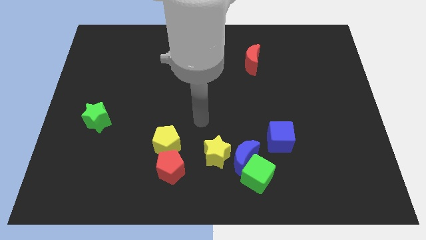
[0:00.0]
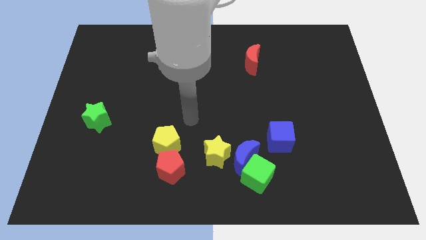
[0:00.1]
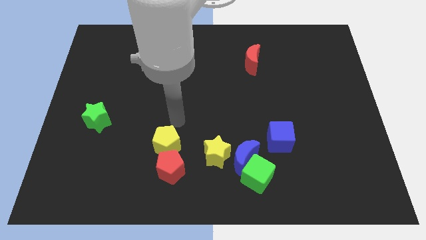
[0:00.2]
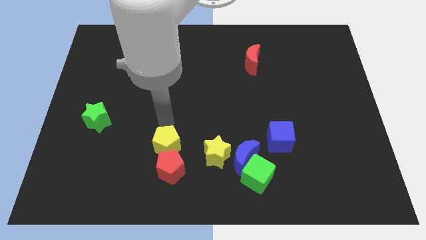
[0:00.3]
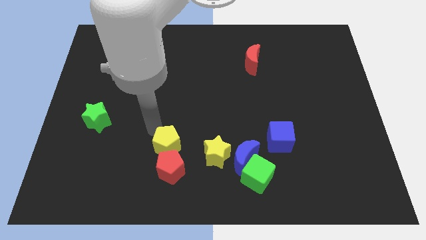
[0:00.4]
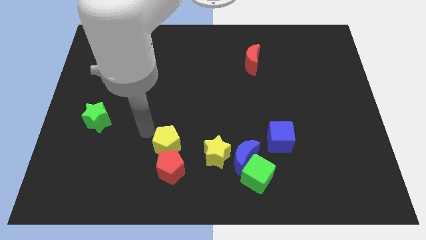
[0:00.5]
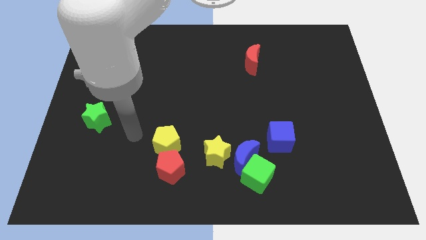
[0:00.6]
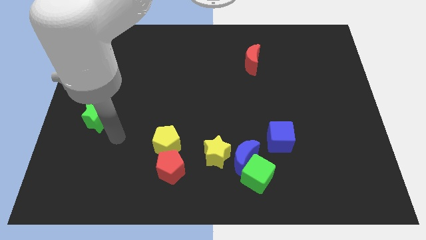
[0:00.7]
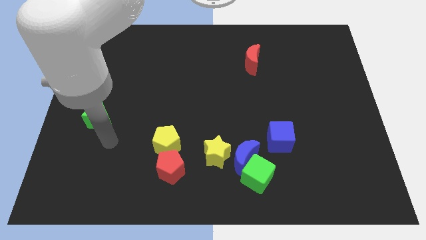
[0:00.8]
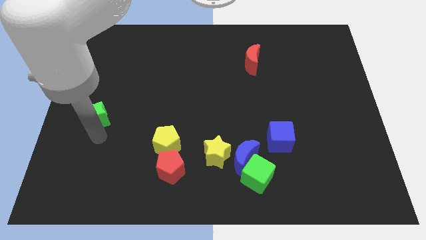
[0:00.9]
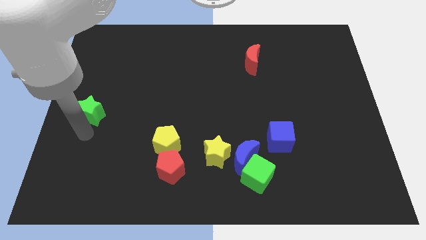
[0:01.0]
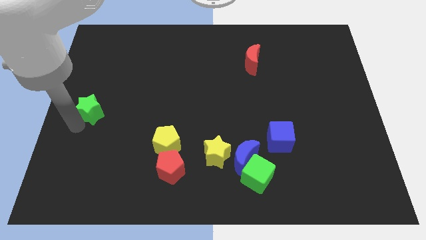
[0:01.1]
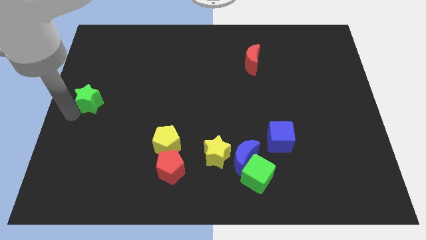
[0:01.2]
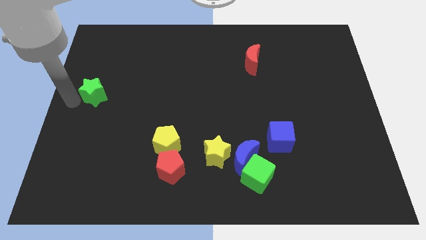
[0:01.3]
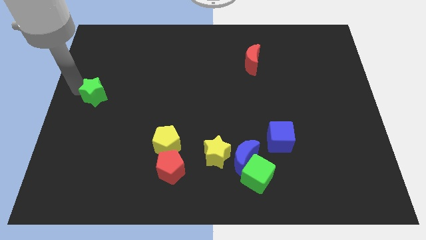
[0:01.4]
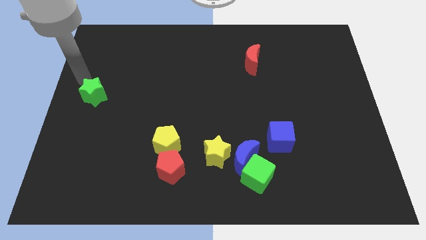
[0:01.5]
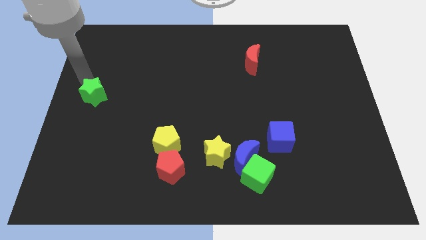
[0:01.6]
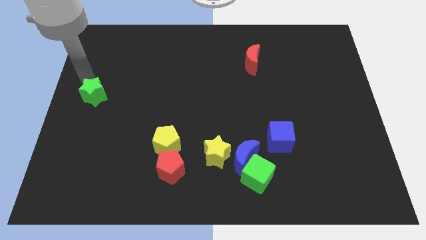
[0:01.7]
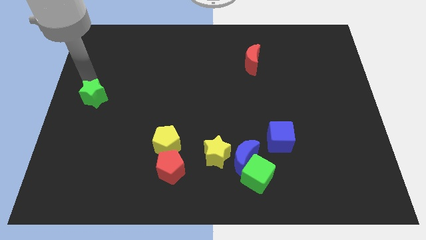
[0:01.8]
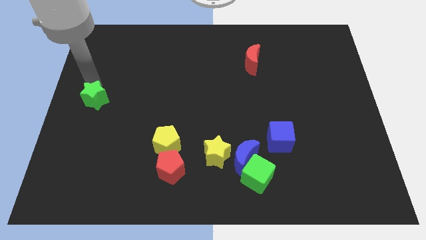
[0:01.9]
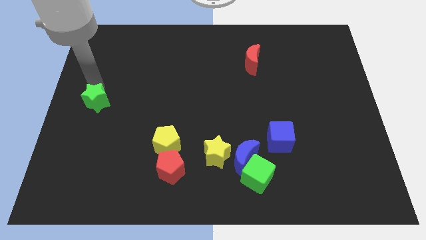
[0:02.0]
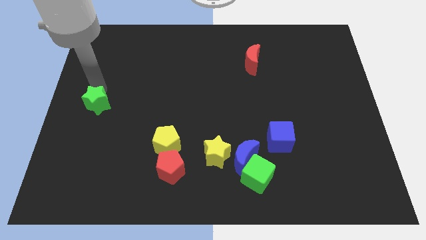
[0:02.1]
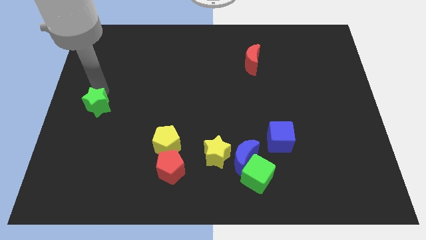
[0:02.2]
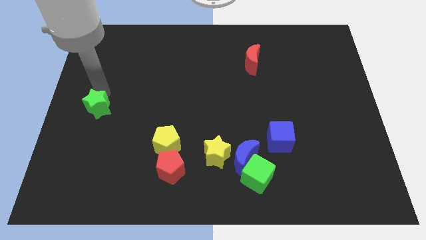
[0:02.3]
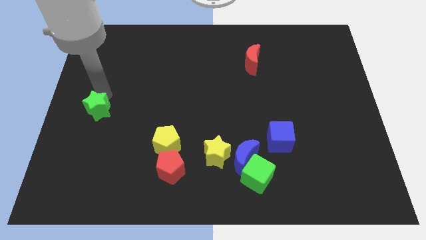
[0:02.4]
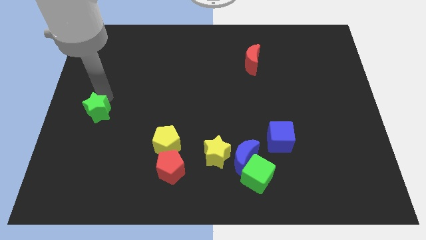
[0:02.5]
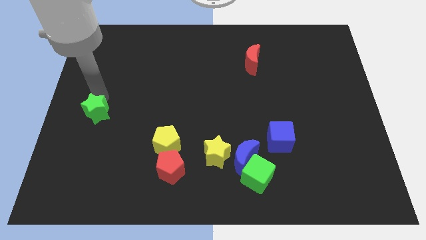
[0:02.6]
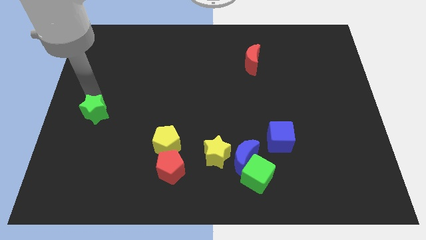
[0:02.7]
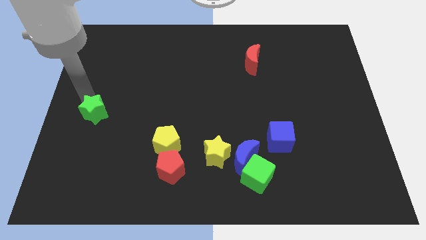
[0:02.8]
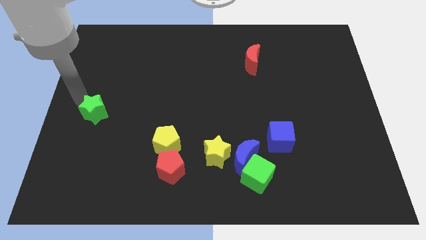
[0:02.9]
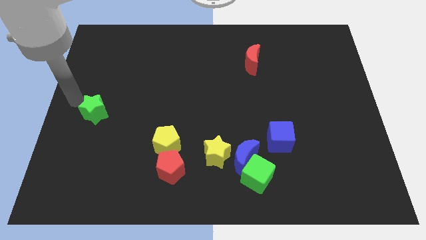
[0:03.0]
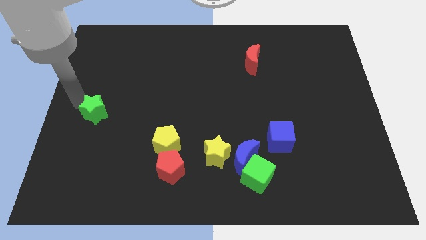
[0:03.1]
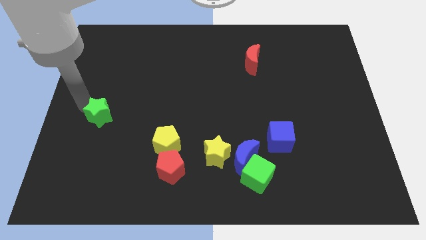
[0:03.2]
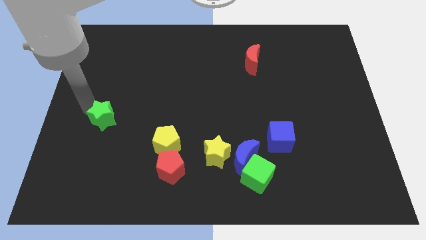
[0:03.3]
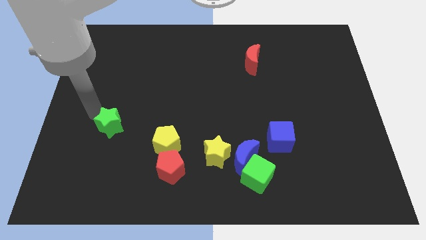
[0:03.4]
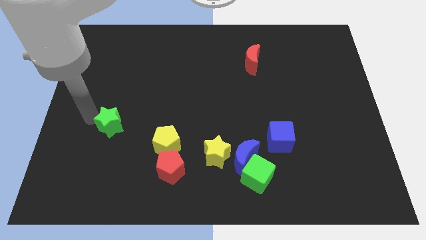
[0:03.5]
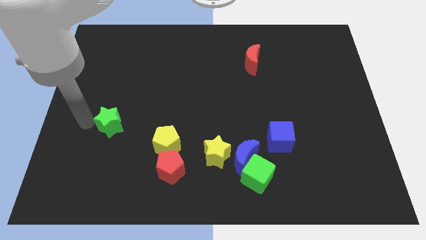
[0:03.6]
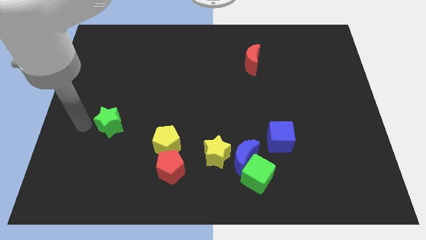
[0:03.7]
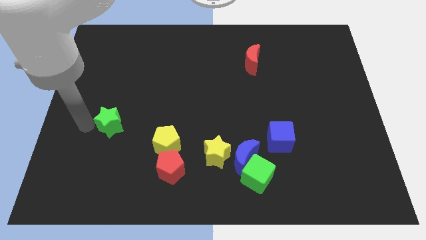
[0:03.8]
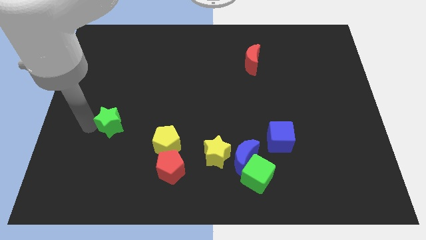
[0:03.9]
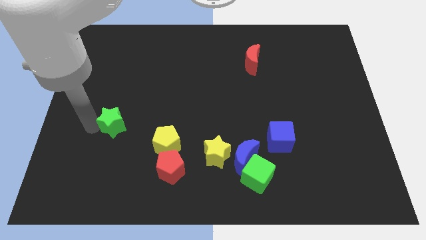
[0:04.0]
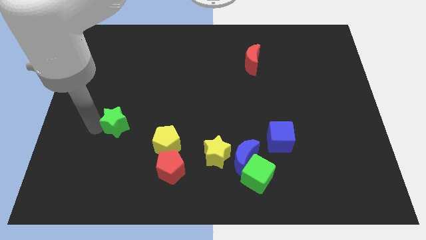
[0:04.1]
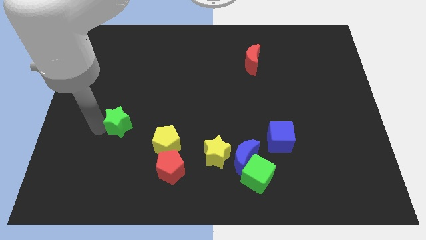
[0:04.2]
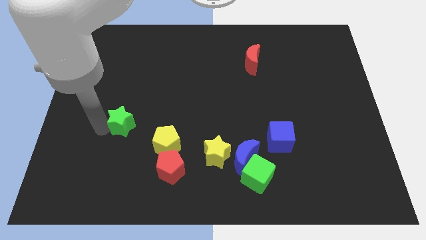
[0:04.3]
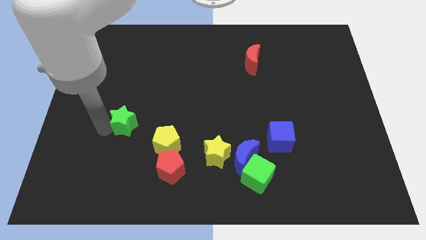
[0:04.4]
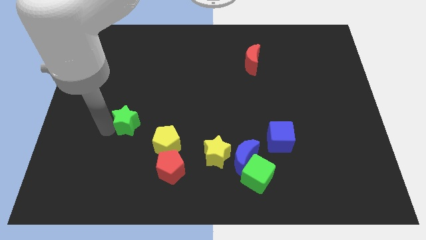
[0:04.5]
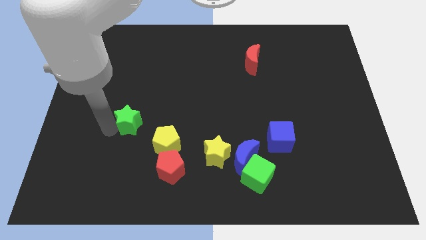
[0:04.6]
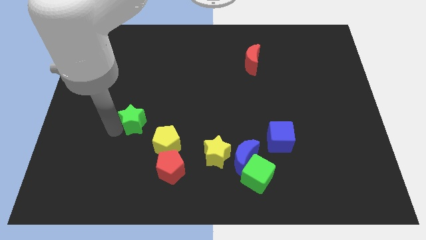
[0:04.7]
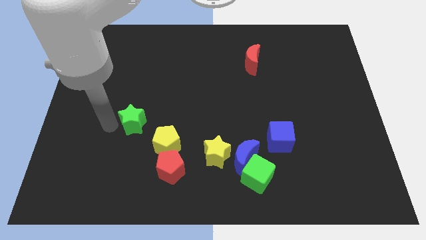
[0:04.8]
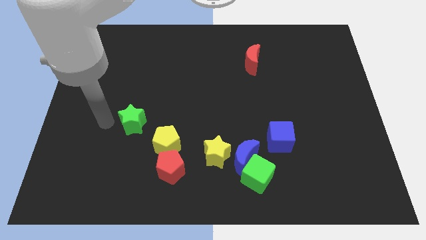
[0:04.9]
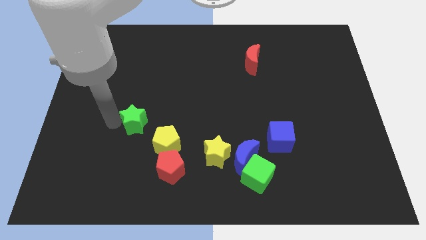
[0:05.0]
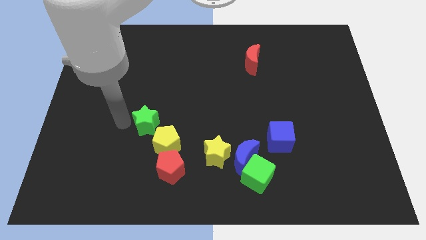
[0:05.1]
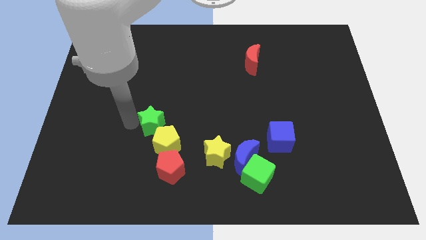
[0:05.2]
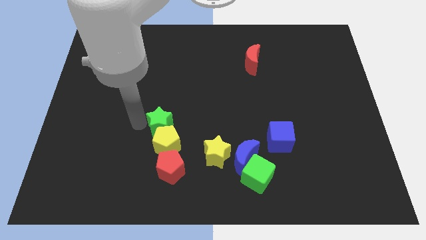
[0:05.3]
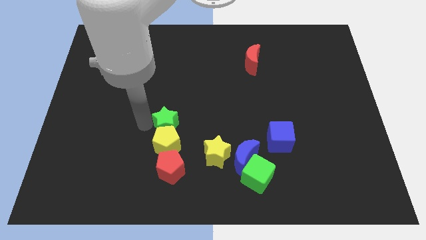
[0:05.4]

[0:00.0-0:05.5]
move the green star to the top right side of the yellow pentagon

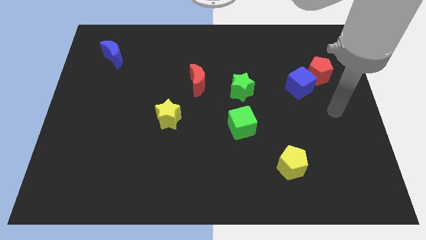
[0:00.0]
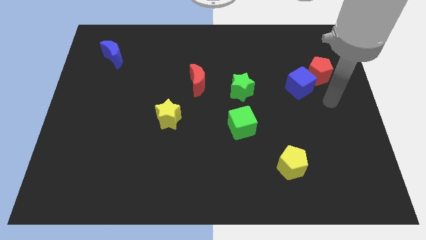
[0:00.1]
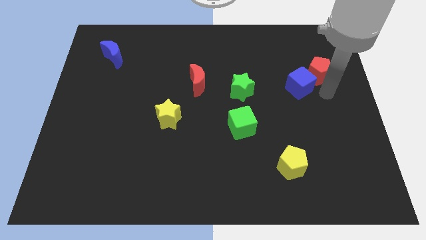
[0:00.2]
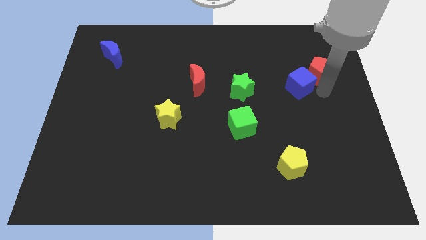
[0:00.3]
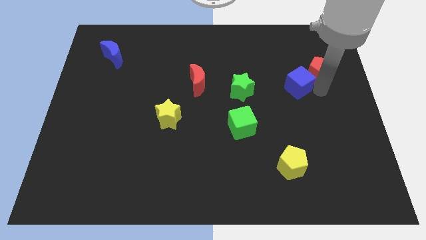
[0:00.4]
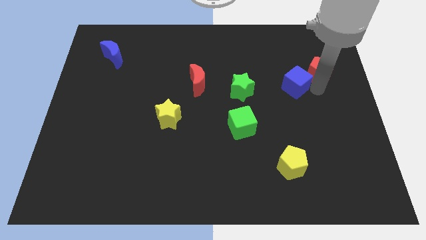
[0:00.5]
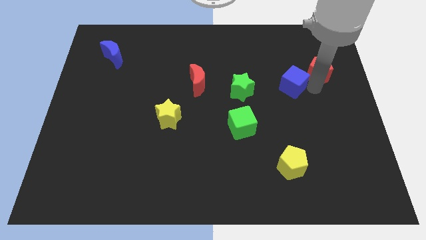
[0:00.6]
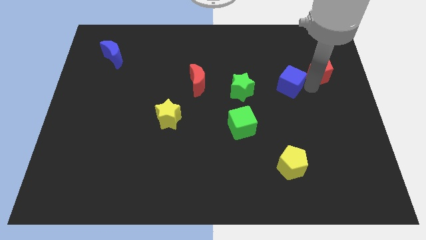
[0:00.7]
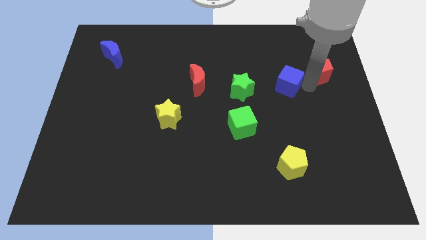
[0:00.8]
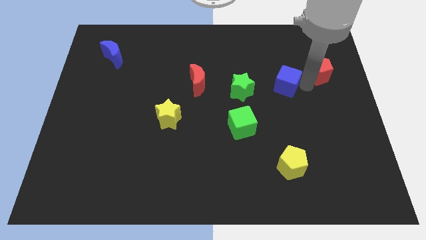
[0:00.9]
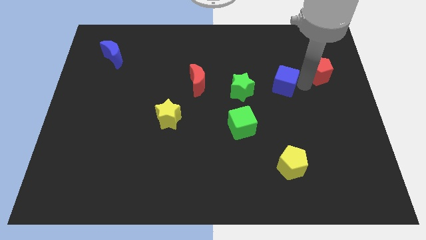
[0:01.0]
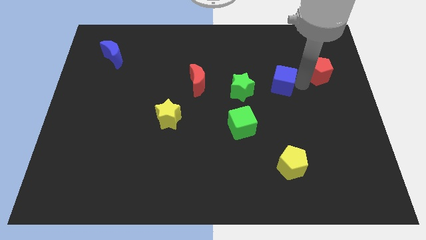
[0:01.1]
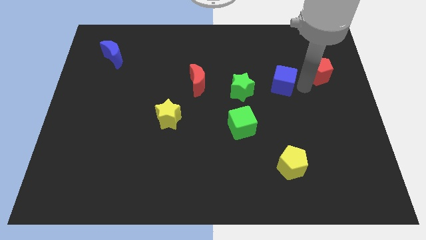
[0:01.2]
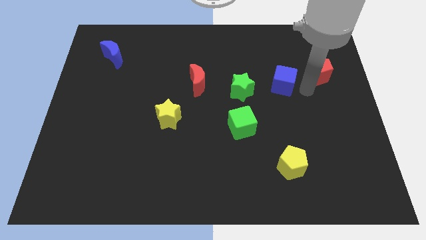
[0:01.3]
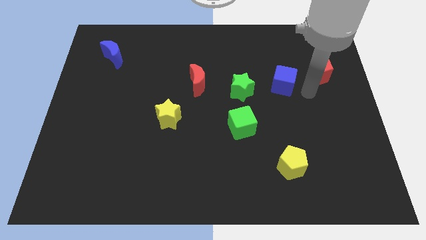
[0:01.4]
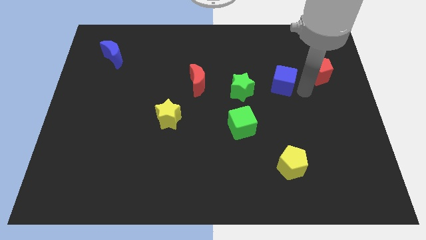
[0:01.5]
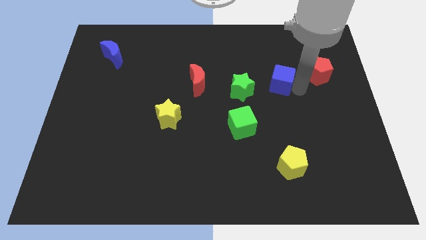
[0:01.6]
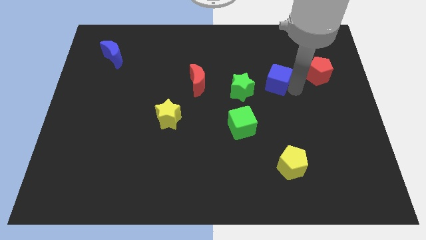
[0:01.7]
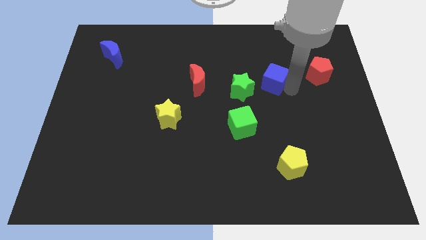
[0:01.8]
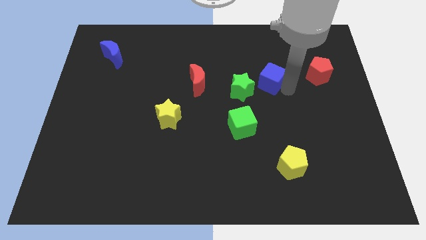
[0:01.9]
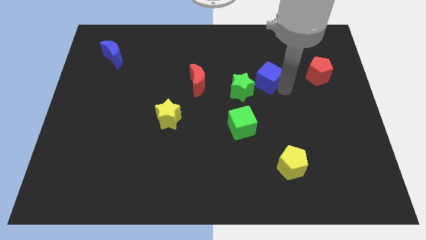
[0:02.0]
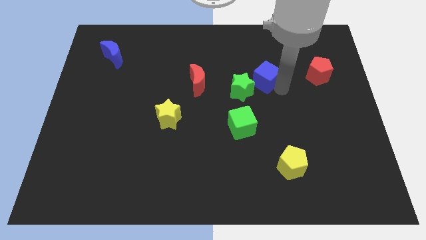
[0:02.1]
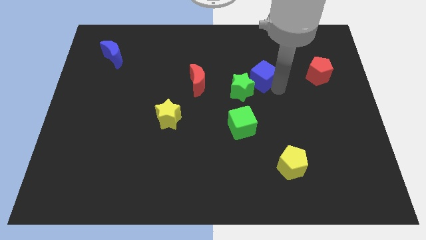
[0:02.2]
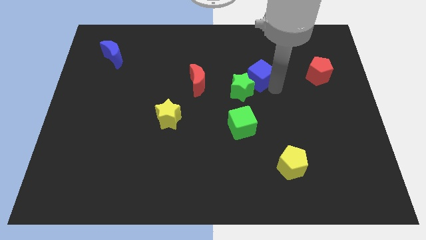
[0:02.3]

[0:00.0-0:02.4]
put the blue cube to the top side of the green star
